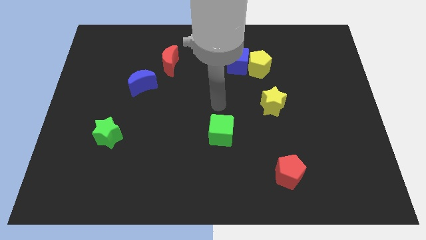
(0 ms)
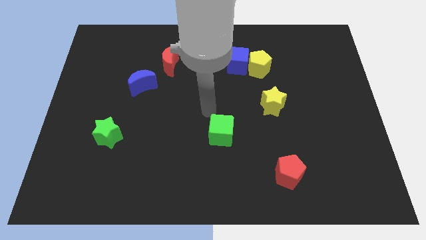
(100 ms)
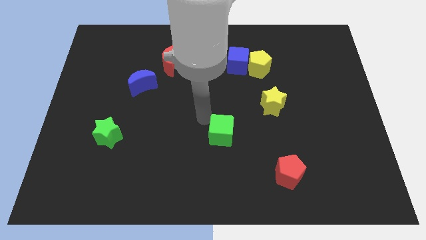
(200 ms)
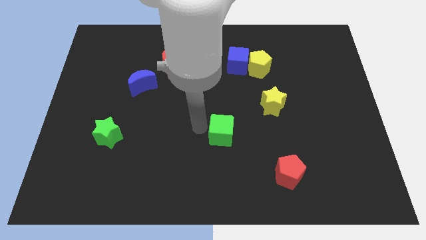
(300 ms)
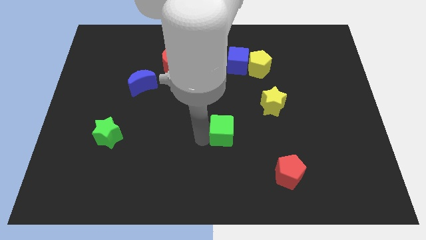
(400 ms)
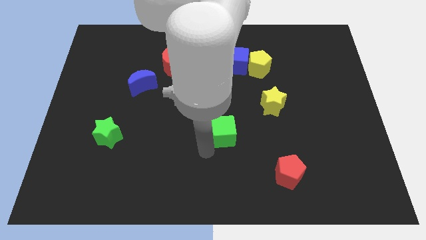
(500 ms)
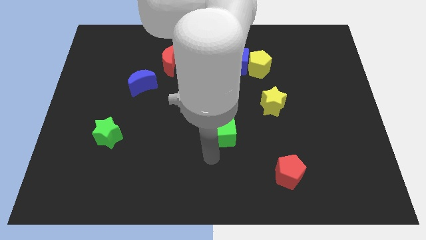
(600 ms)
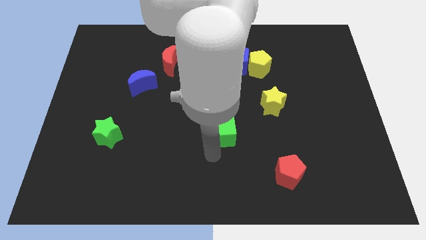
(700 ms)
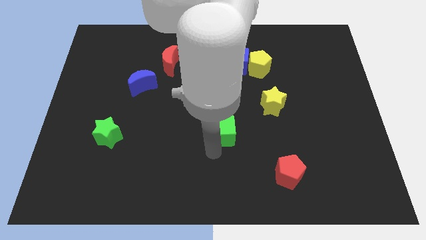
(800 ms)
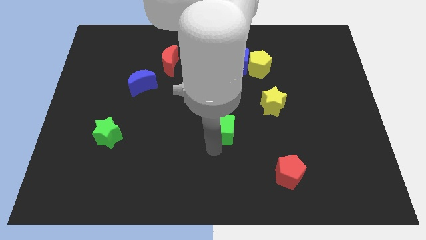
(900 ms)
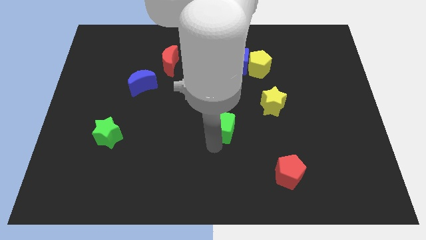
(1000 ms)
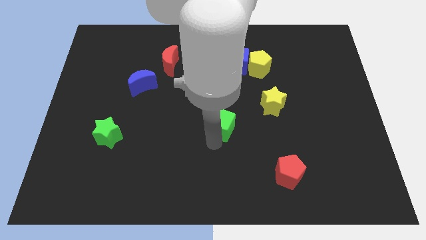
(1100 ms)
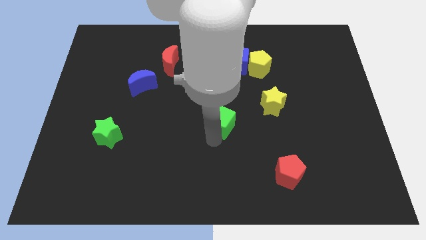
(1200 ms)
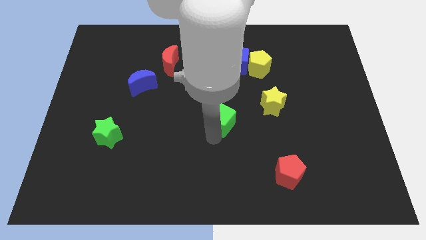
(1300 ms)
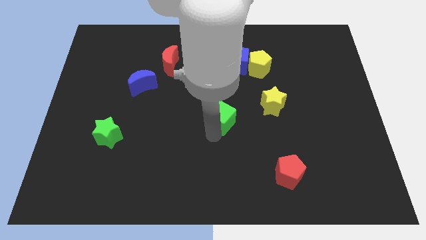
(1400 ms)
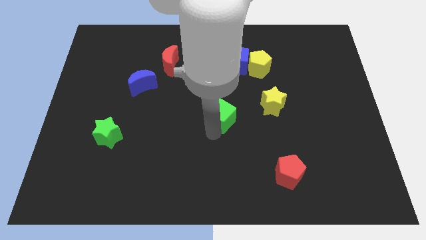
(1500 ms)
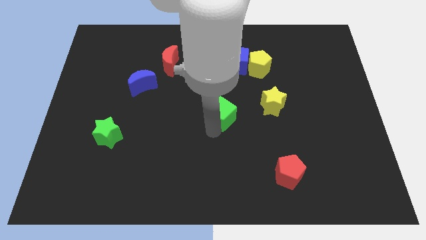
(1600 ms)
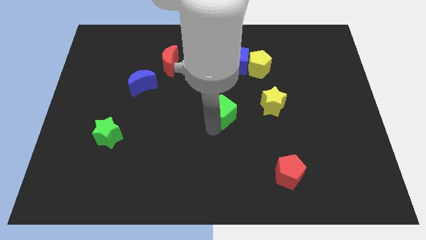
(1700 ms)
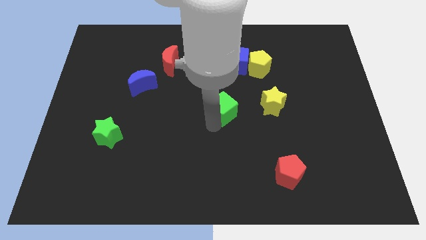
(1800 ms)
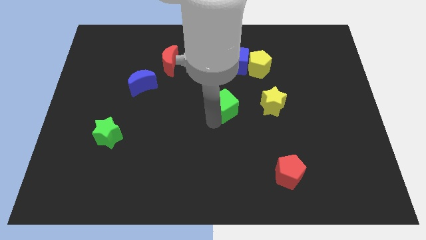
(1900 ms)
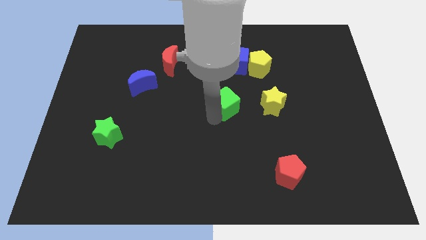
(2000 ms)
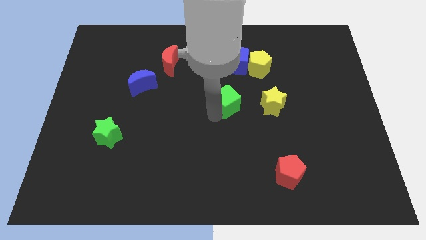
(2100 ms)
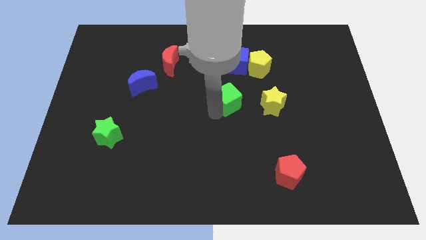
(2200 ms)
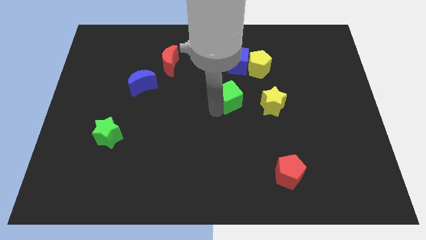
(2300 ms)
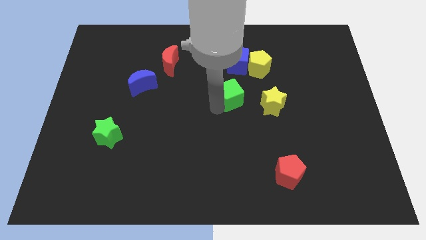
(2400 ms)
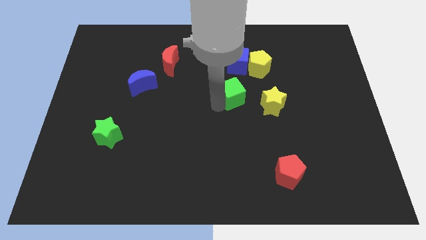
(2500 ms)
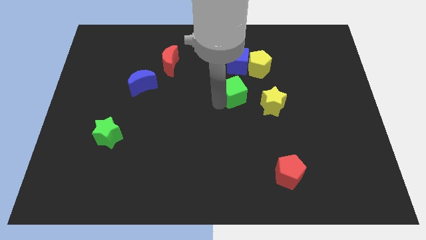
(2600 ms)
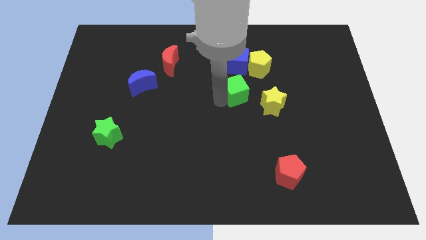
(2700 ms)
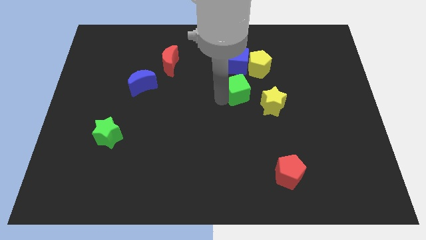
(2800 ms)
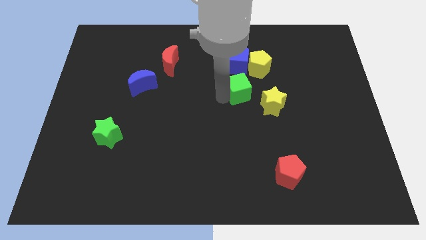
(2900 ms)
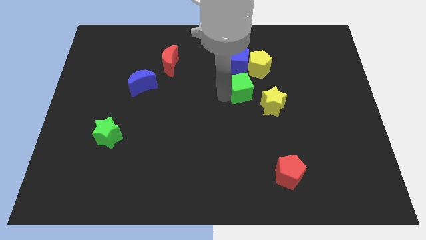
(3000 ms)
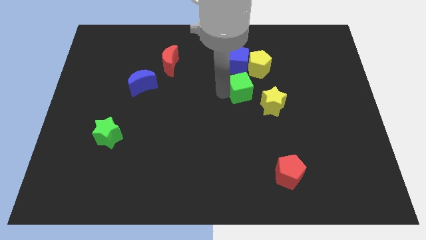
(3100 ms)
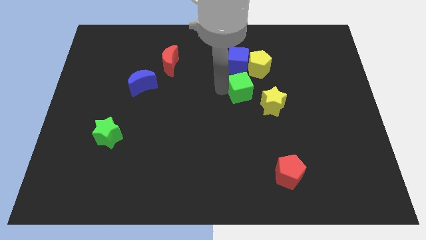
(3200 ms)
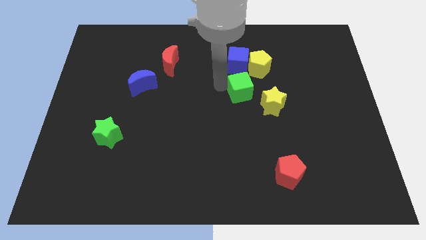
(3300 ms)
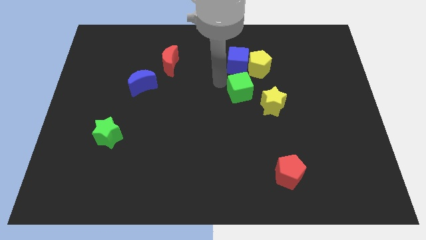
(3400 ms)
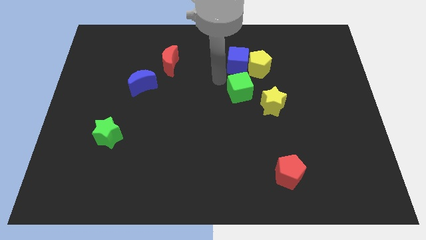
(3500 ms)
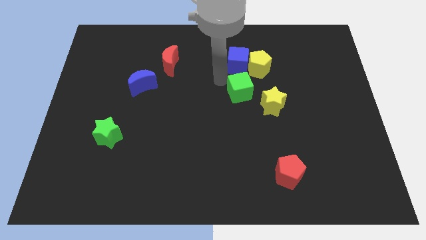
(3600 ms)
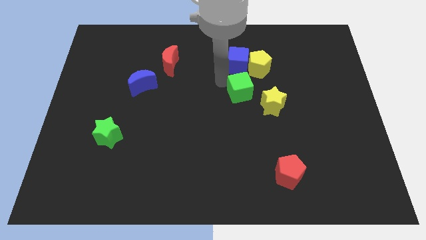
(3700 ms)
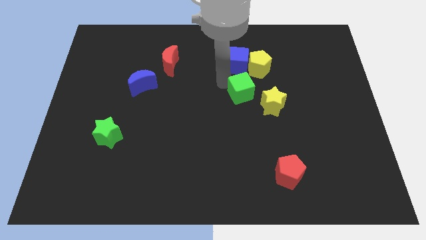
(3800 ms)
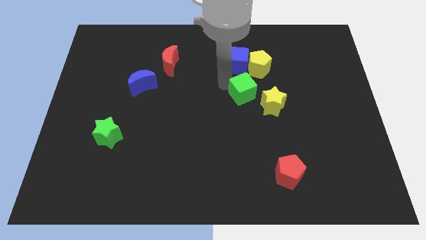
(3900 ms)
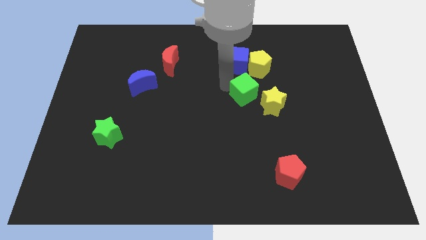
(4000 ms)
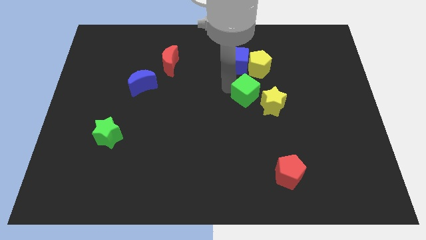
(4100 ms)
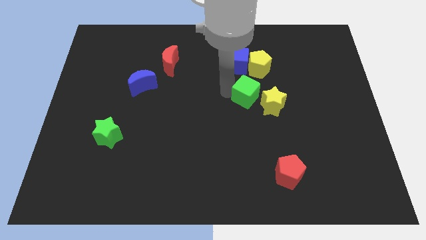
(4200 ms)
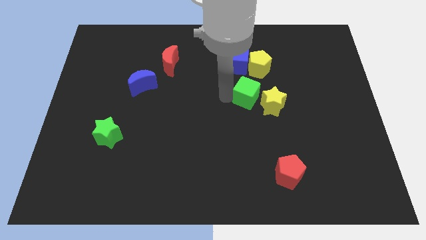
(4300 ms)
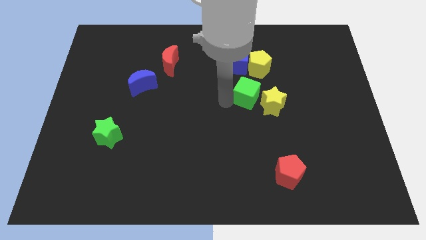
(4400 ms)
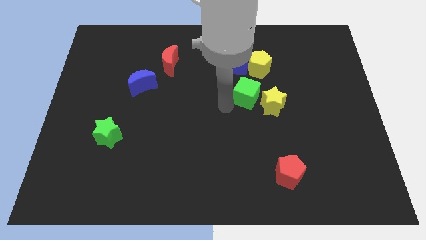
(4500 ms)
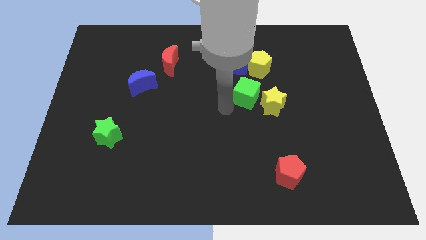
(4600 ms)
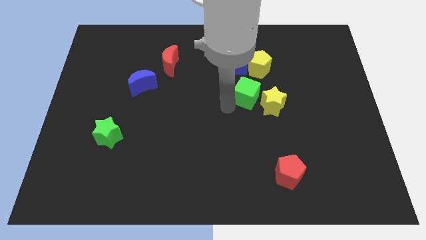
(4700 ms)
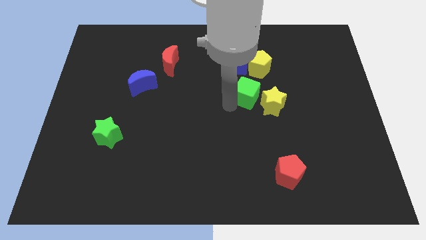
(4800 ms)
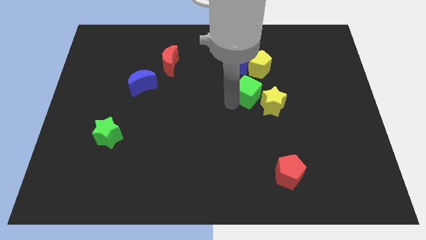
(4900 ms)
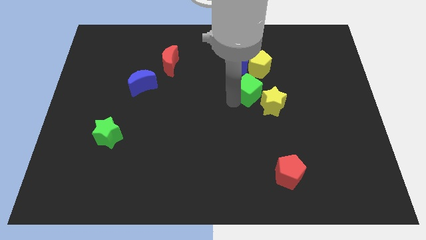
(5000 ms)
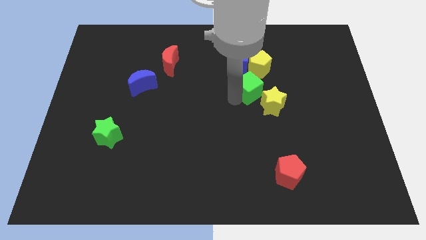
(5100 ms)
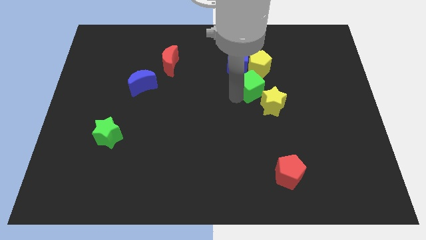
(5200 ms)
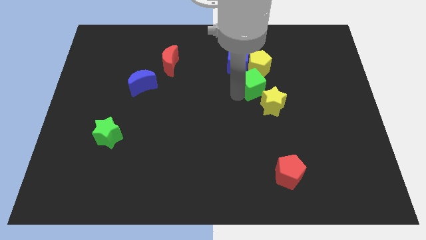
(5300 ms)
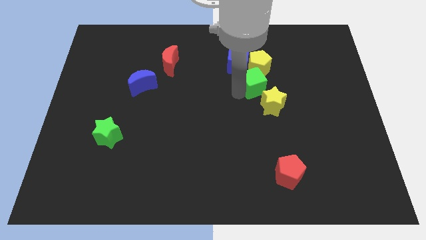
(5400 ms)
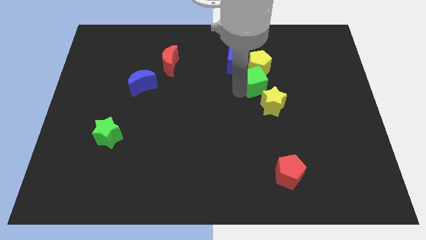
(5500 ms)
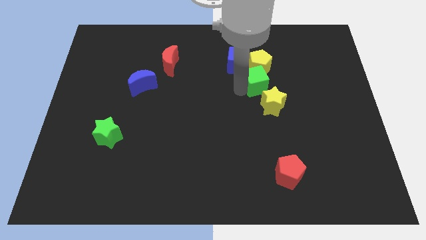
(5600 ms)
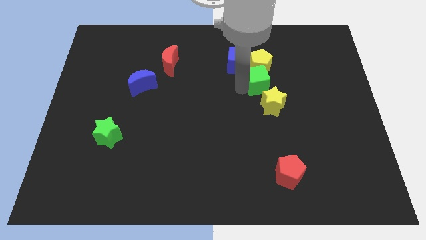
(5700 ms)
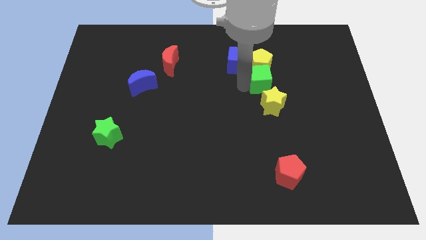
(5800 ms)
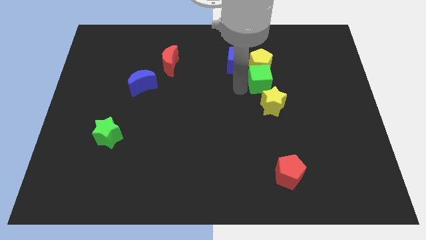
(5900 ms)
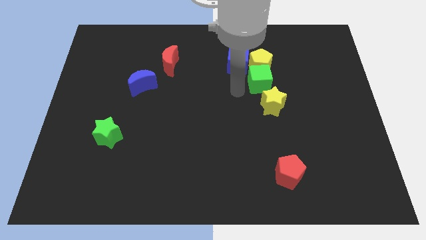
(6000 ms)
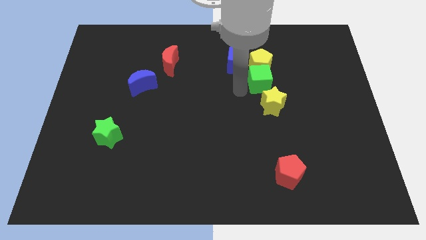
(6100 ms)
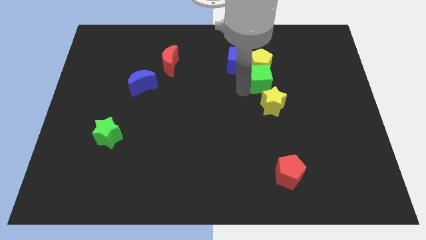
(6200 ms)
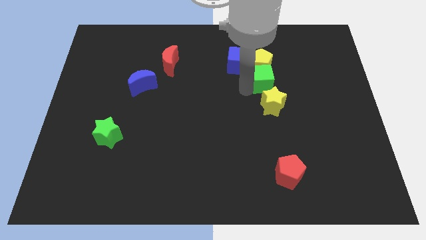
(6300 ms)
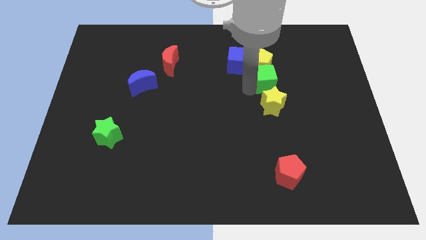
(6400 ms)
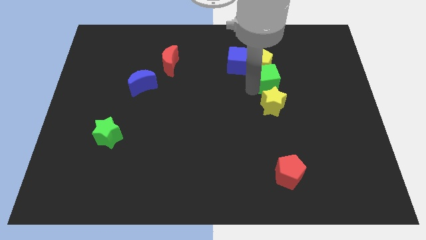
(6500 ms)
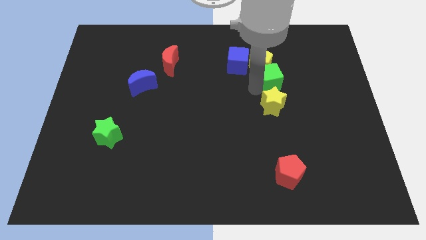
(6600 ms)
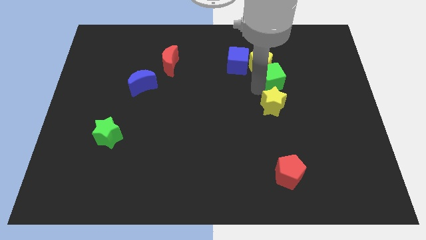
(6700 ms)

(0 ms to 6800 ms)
slide the green cube upwards and then right

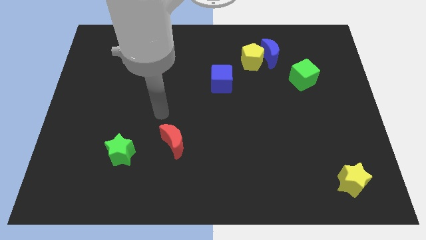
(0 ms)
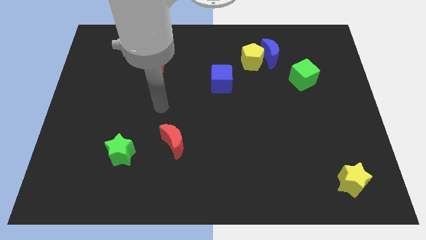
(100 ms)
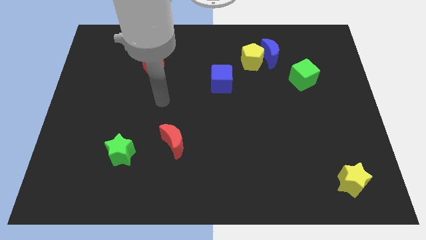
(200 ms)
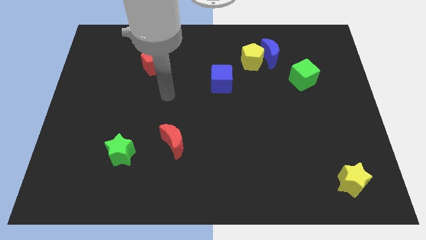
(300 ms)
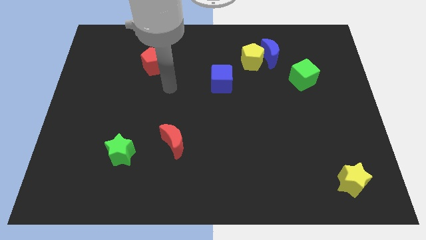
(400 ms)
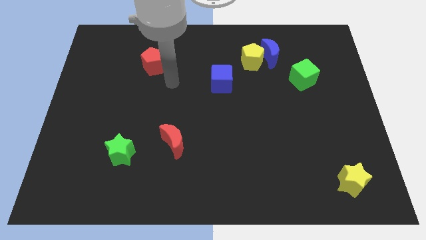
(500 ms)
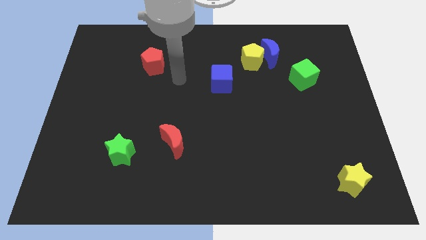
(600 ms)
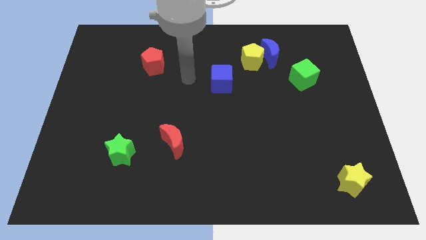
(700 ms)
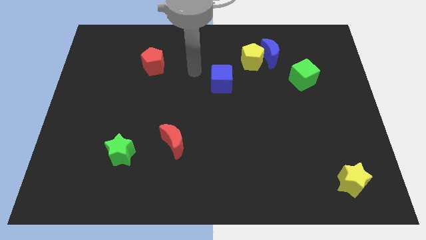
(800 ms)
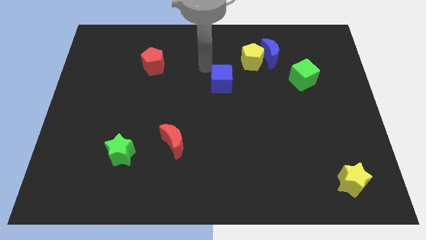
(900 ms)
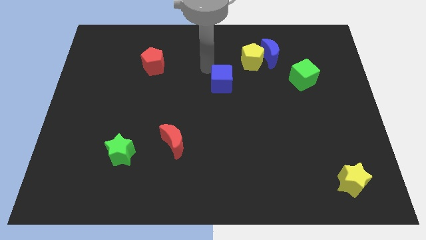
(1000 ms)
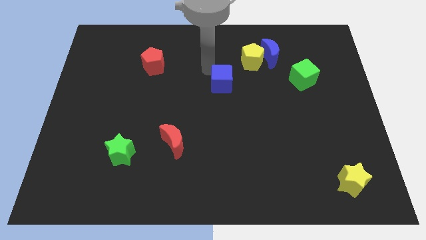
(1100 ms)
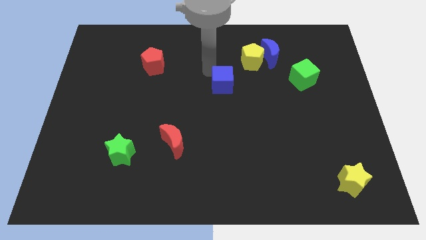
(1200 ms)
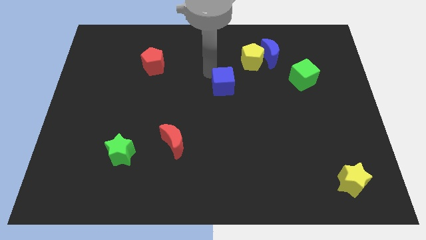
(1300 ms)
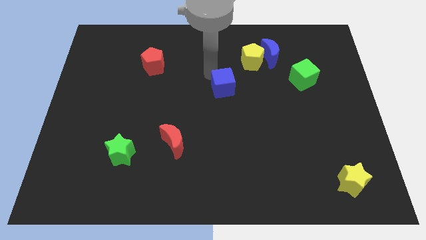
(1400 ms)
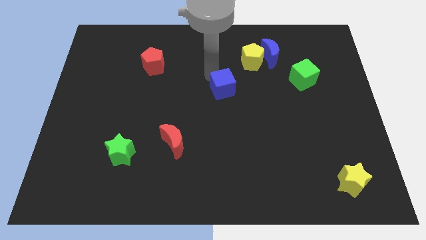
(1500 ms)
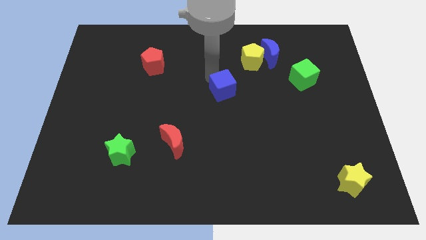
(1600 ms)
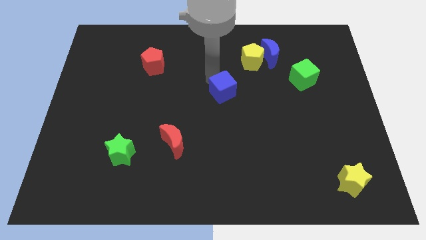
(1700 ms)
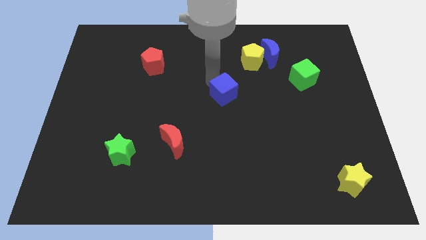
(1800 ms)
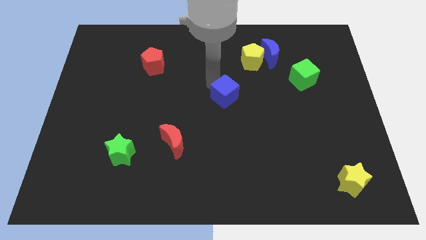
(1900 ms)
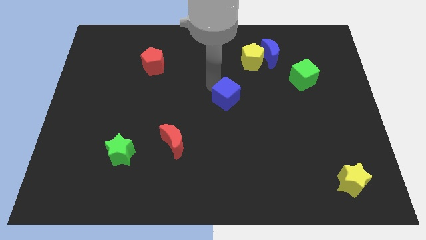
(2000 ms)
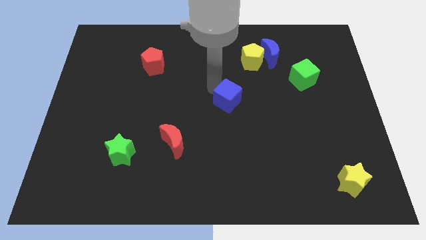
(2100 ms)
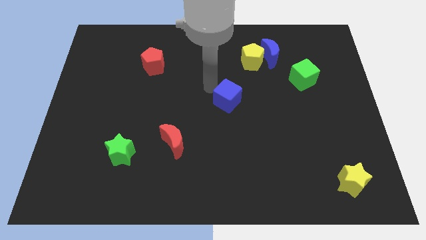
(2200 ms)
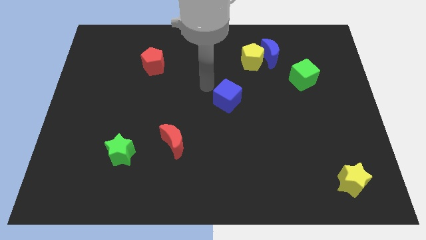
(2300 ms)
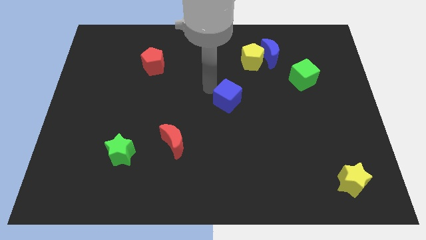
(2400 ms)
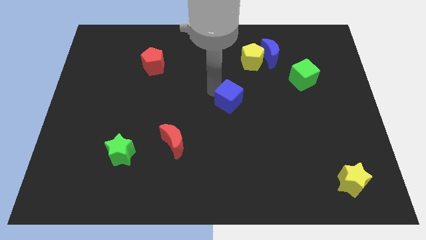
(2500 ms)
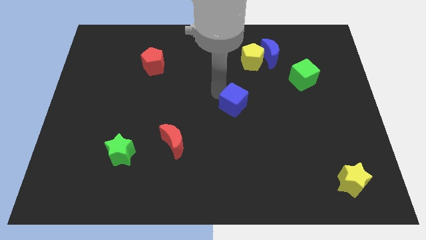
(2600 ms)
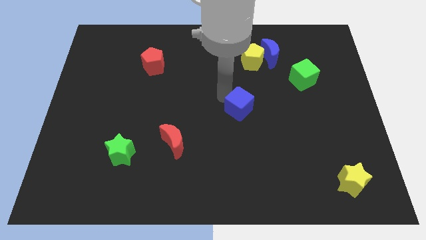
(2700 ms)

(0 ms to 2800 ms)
slightly slide the blue cube downwards and then to the right
